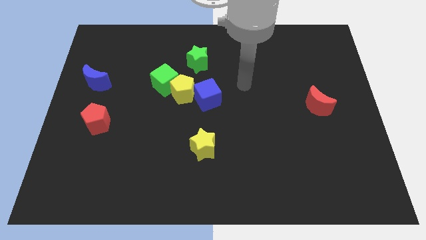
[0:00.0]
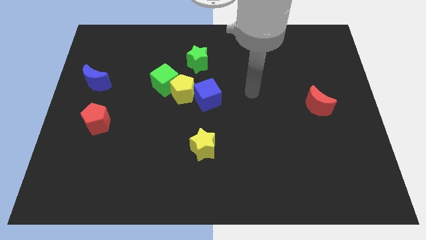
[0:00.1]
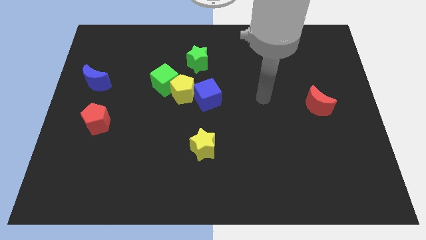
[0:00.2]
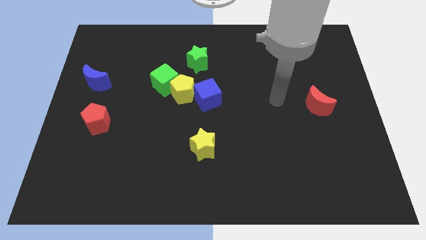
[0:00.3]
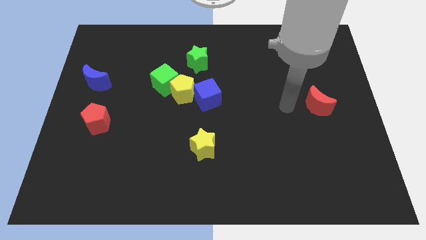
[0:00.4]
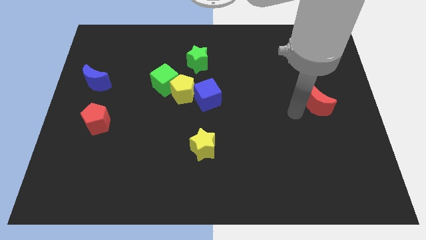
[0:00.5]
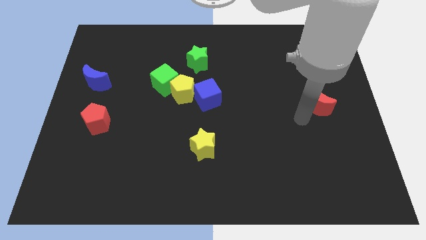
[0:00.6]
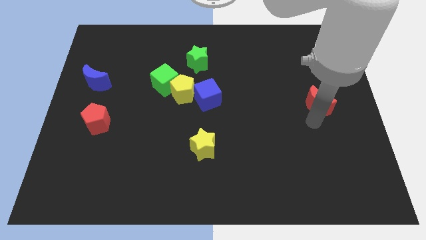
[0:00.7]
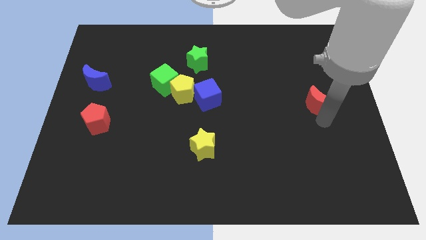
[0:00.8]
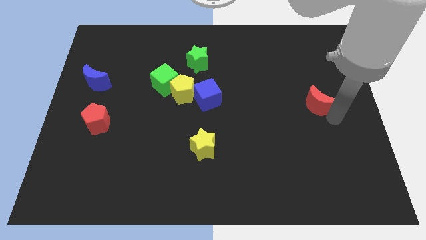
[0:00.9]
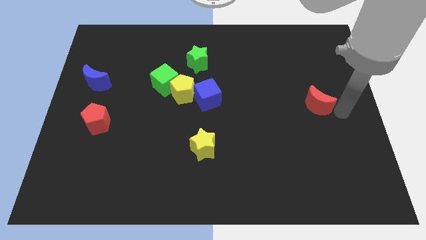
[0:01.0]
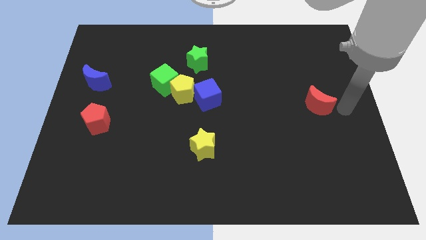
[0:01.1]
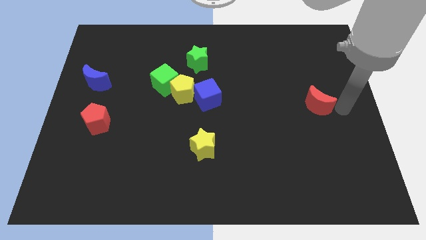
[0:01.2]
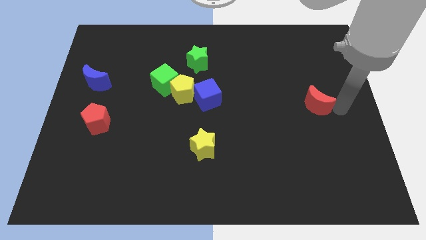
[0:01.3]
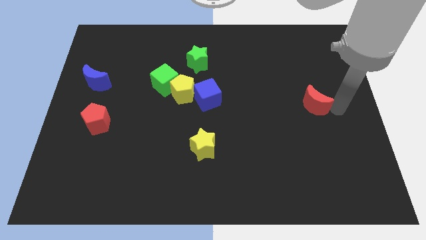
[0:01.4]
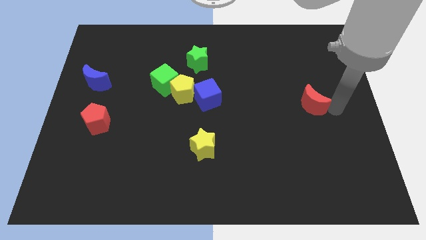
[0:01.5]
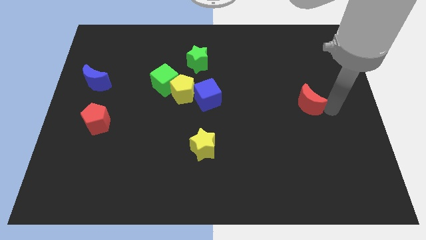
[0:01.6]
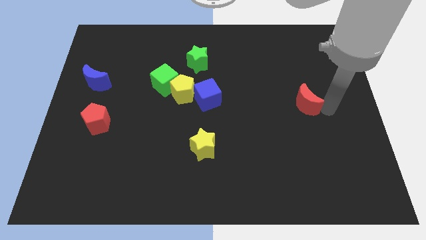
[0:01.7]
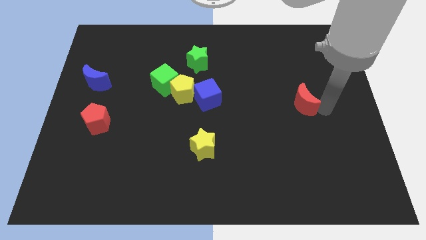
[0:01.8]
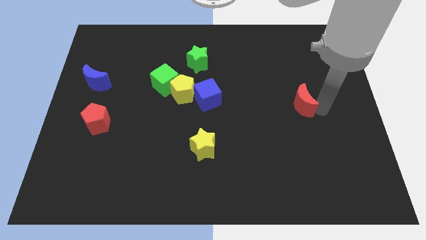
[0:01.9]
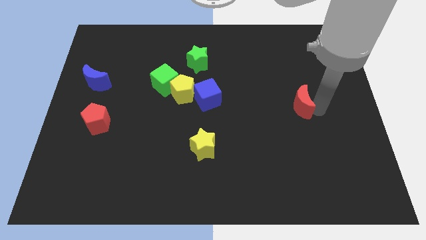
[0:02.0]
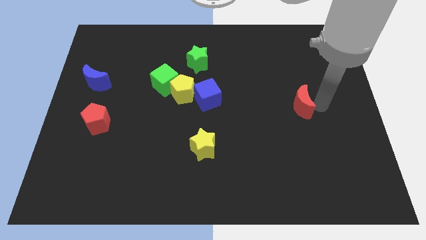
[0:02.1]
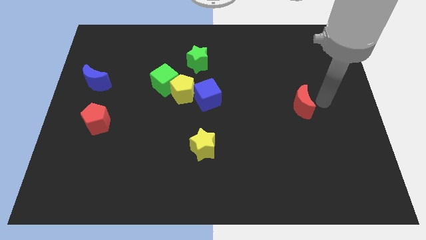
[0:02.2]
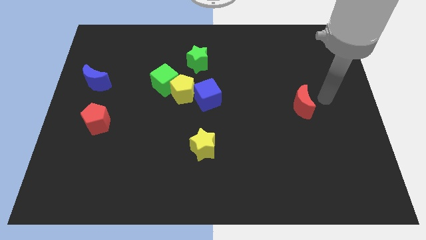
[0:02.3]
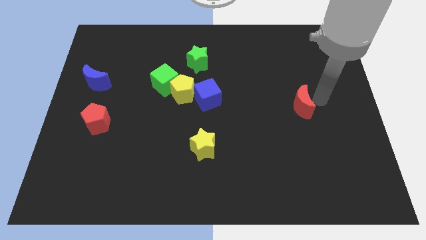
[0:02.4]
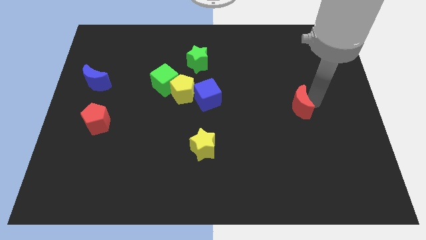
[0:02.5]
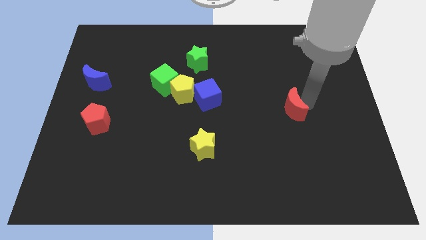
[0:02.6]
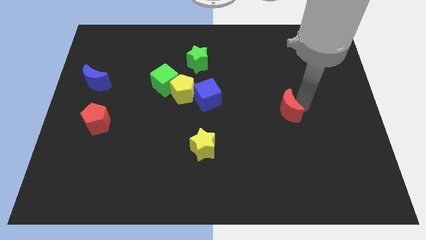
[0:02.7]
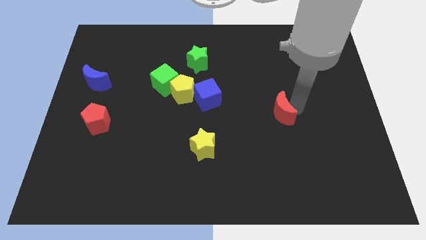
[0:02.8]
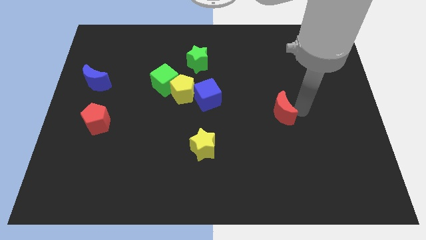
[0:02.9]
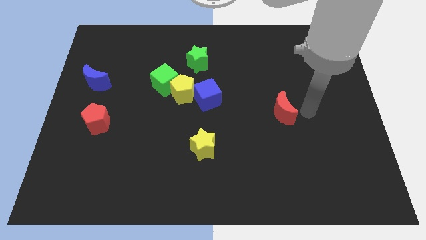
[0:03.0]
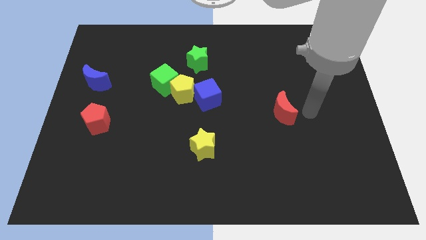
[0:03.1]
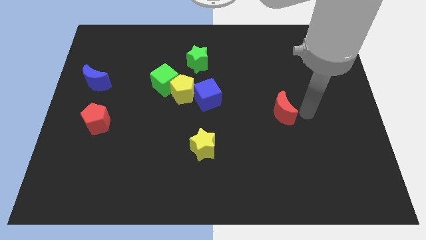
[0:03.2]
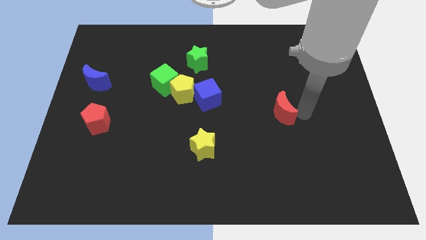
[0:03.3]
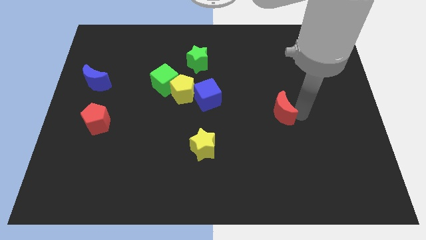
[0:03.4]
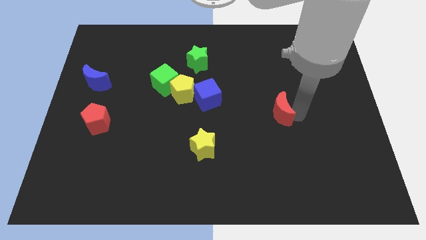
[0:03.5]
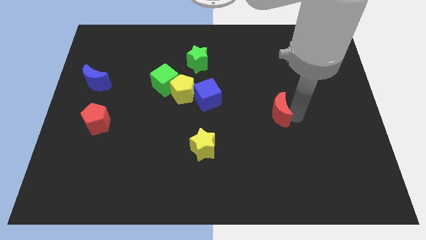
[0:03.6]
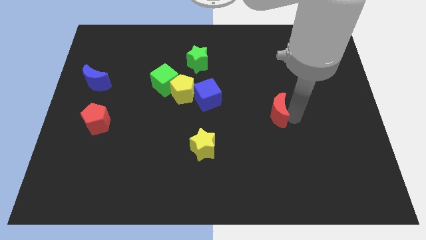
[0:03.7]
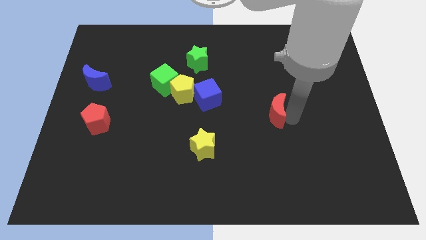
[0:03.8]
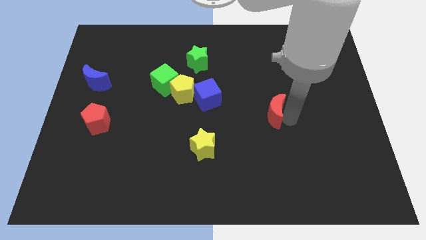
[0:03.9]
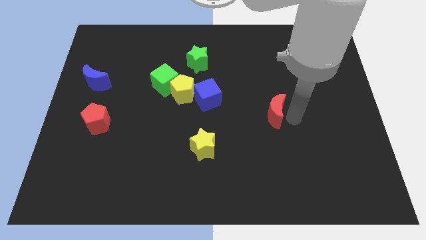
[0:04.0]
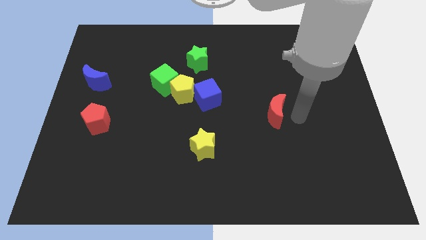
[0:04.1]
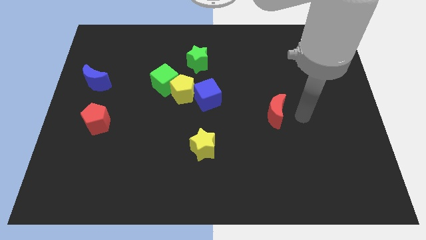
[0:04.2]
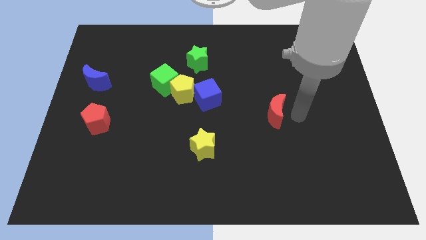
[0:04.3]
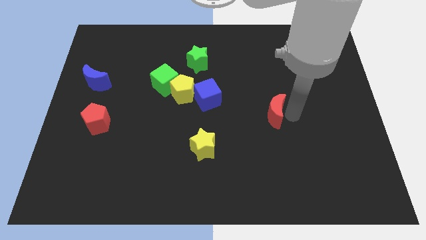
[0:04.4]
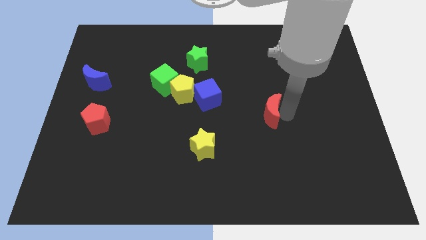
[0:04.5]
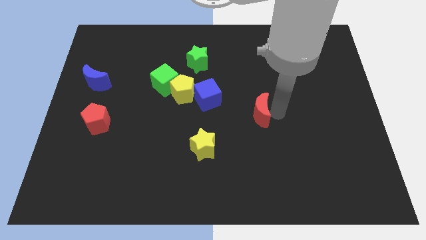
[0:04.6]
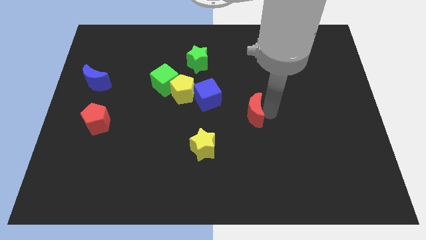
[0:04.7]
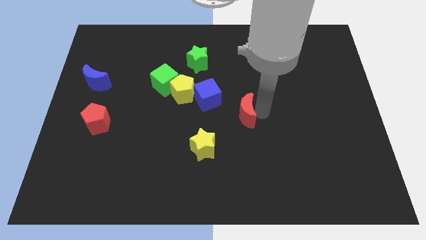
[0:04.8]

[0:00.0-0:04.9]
put the red moon to the bottom right side of the blue cube

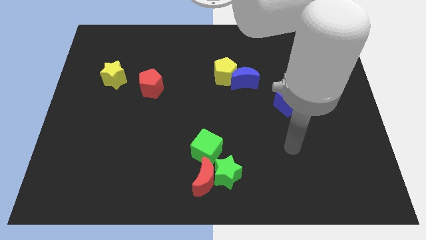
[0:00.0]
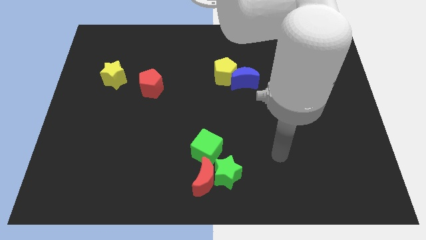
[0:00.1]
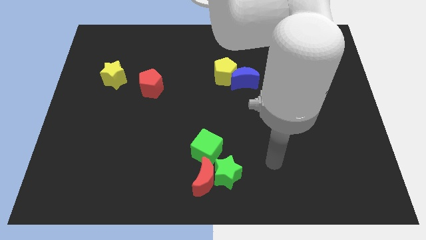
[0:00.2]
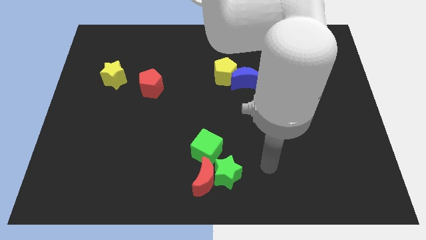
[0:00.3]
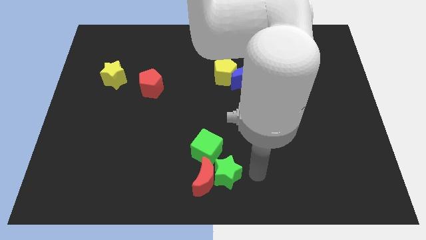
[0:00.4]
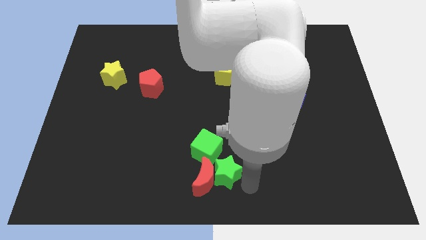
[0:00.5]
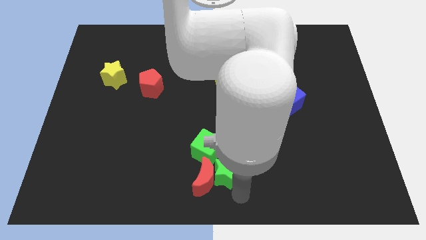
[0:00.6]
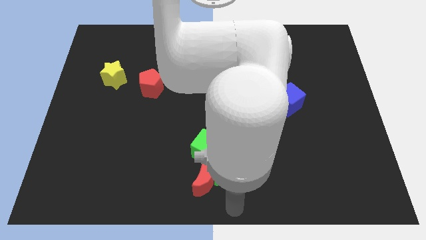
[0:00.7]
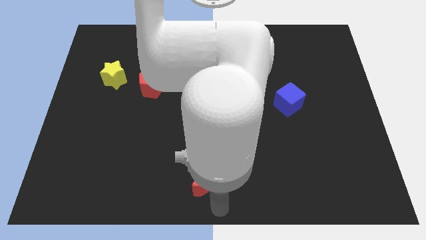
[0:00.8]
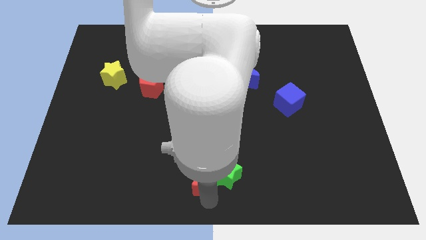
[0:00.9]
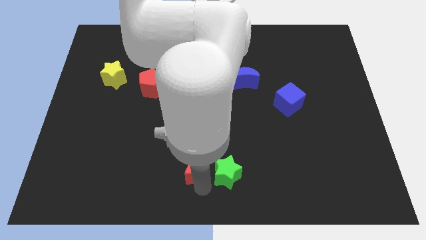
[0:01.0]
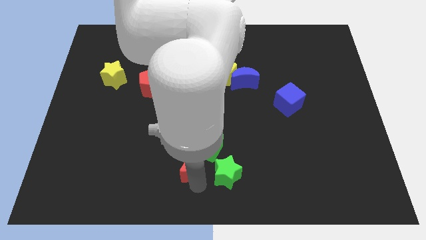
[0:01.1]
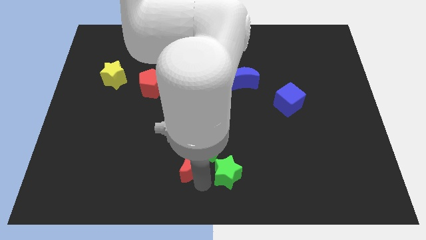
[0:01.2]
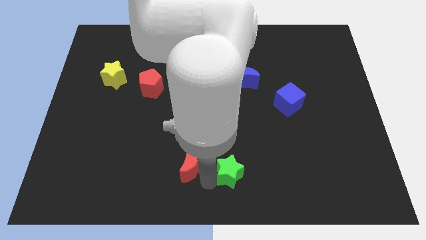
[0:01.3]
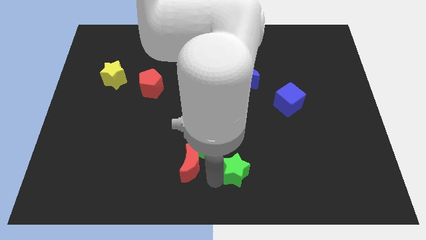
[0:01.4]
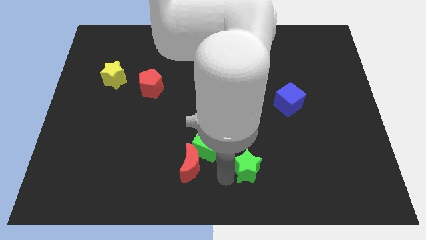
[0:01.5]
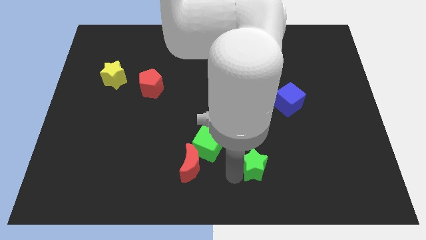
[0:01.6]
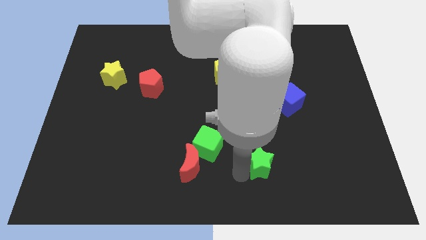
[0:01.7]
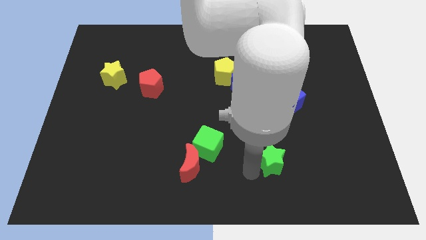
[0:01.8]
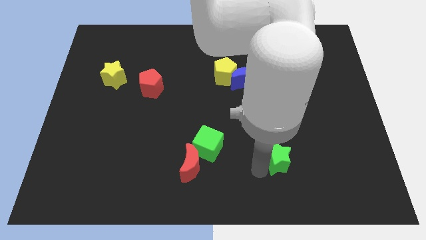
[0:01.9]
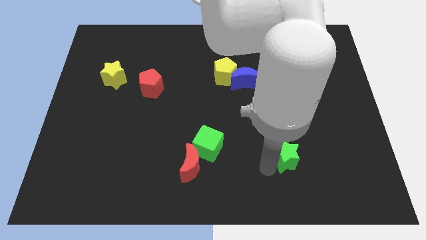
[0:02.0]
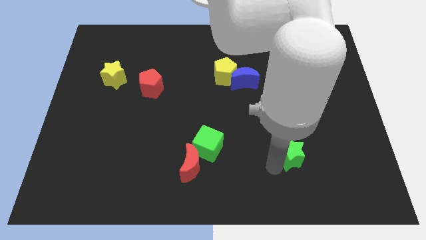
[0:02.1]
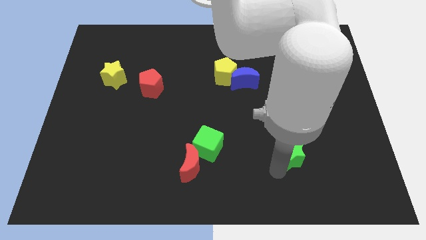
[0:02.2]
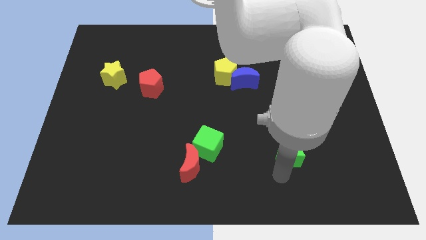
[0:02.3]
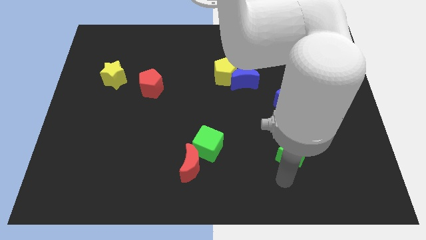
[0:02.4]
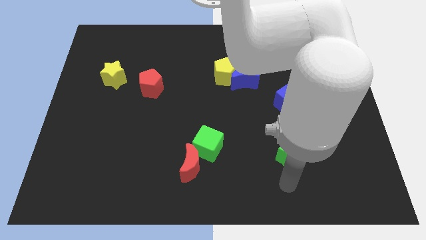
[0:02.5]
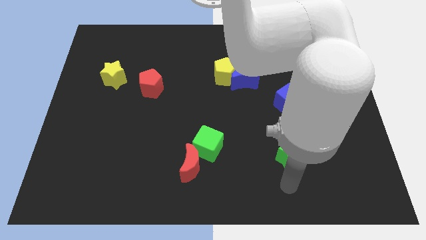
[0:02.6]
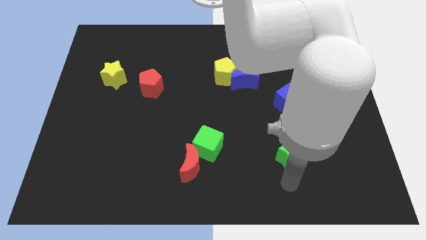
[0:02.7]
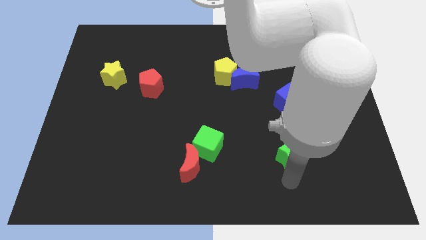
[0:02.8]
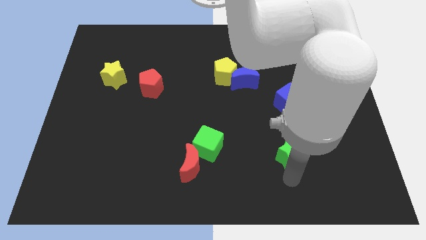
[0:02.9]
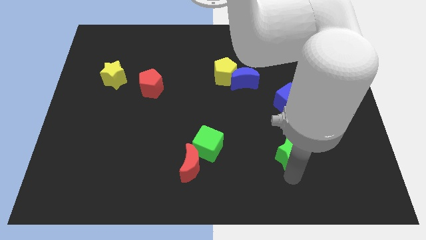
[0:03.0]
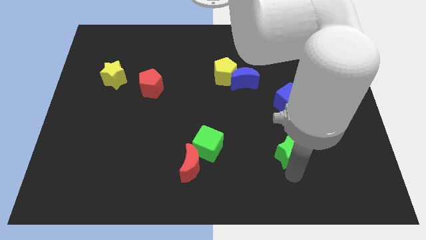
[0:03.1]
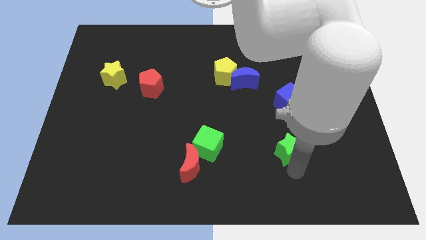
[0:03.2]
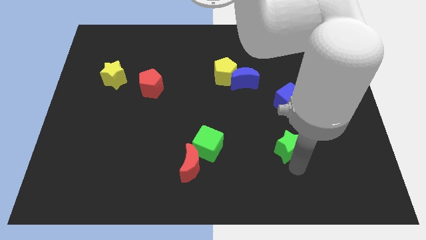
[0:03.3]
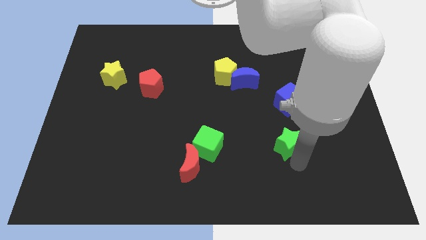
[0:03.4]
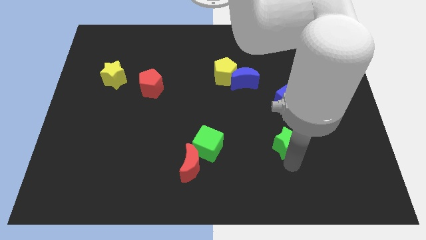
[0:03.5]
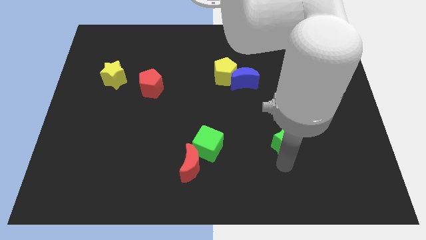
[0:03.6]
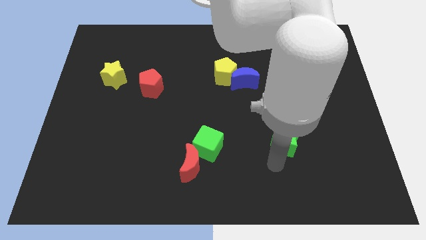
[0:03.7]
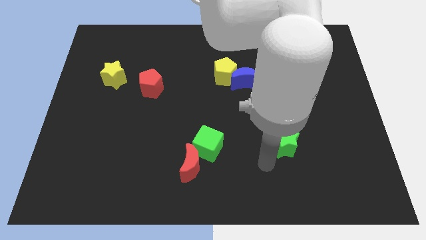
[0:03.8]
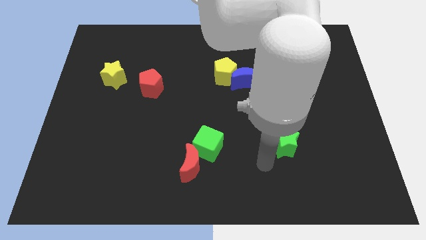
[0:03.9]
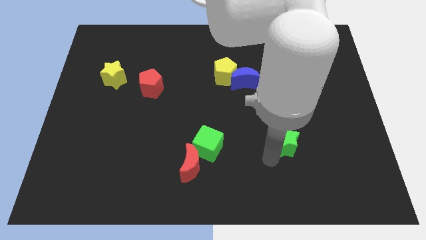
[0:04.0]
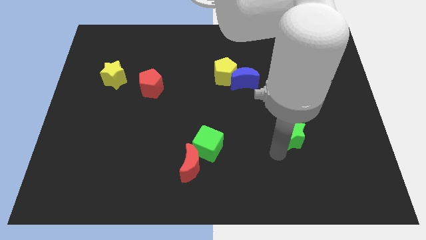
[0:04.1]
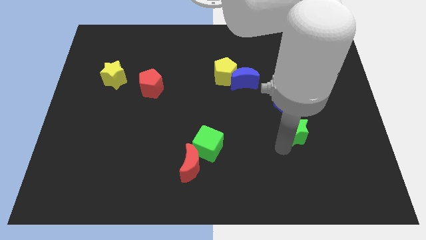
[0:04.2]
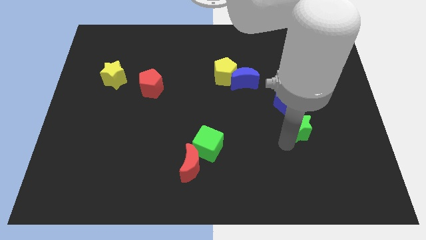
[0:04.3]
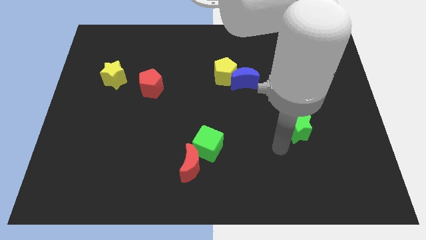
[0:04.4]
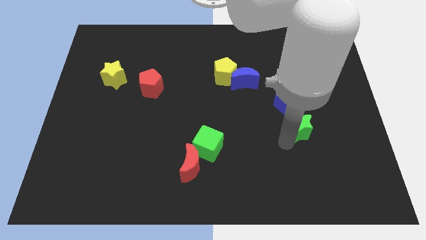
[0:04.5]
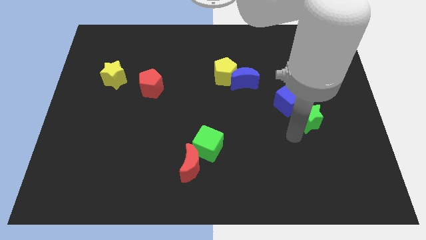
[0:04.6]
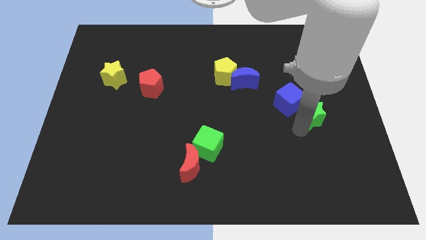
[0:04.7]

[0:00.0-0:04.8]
move the green star to the right side of the blue cube
